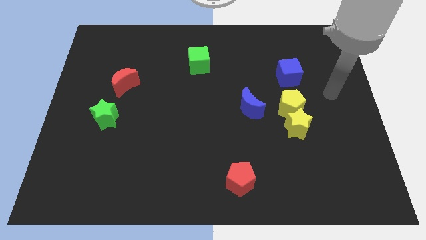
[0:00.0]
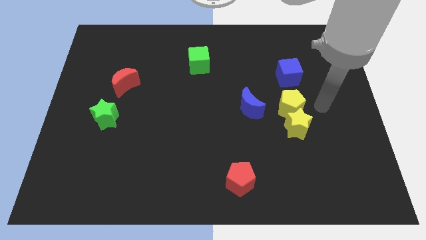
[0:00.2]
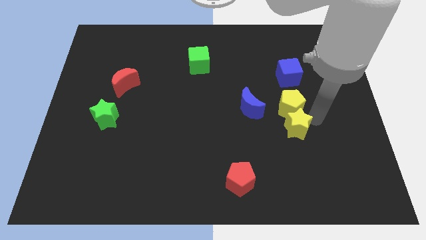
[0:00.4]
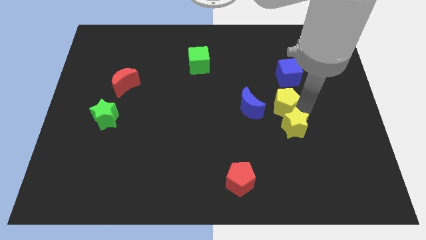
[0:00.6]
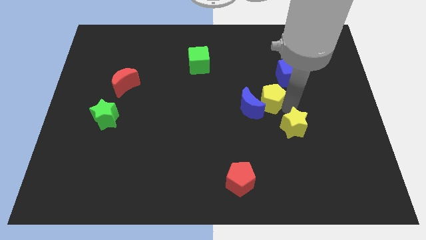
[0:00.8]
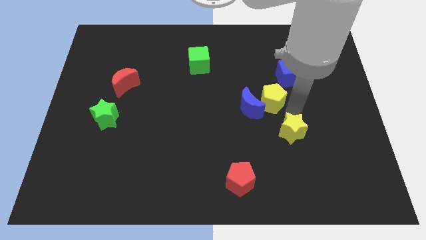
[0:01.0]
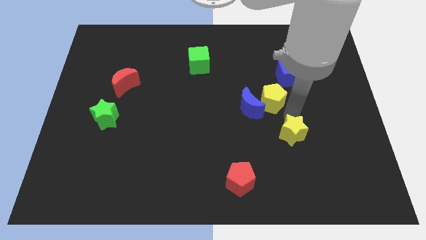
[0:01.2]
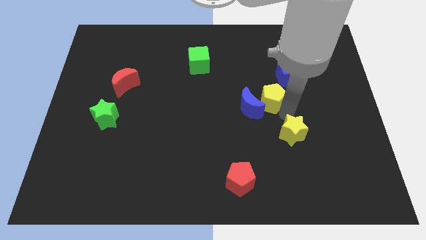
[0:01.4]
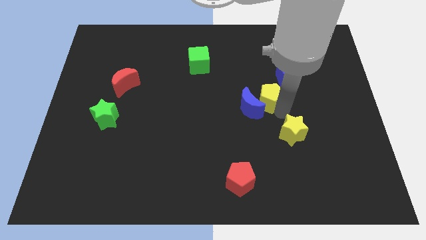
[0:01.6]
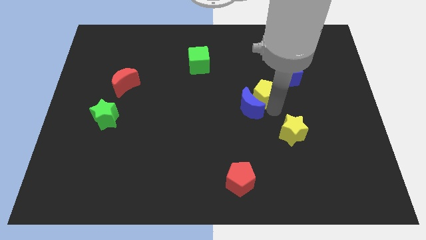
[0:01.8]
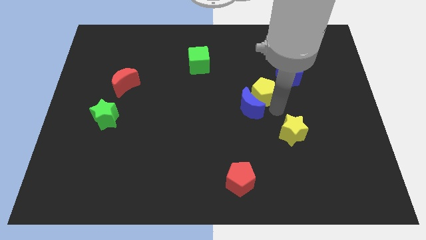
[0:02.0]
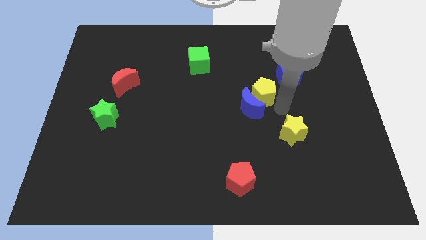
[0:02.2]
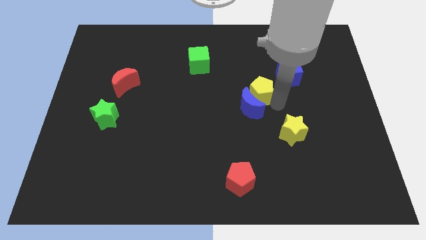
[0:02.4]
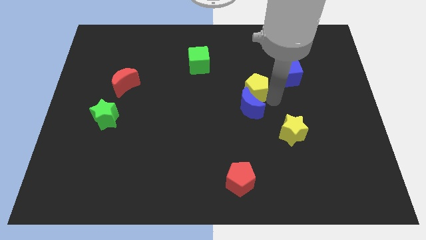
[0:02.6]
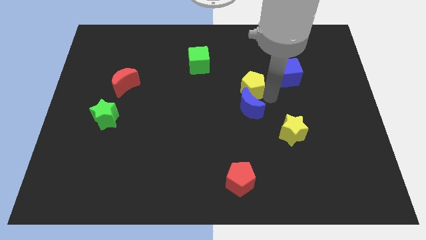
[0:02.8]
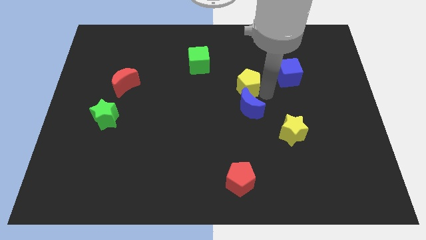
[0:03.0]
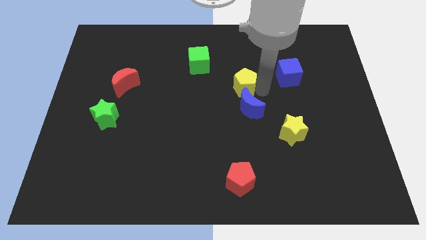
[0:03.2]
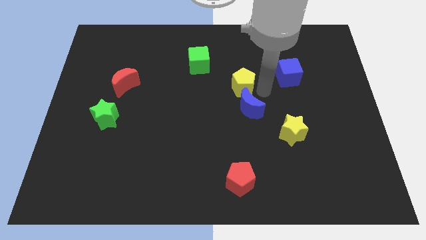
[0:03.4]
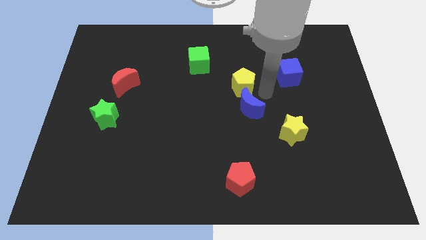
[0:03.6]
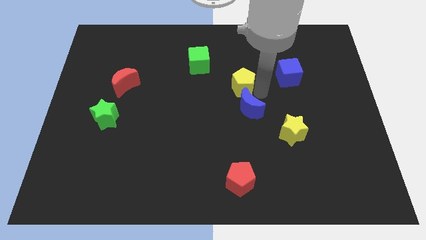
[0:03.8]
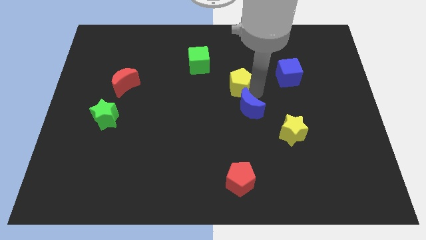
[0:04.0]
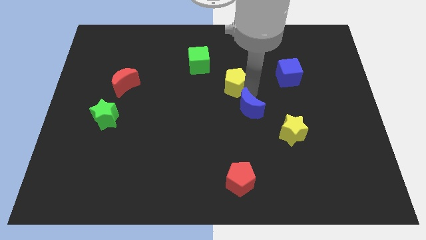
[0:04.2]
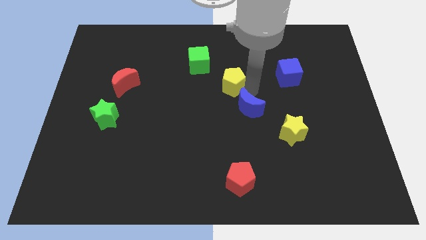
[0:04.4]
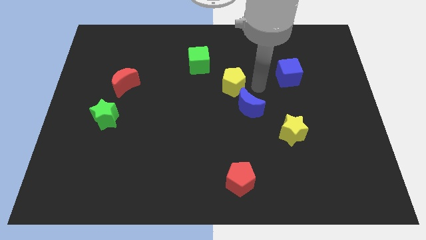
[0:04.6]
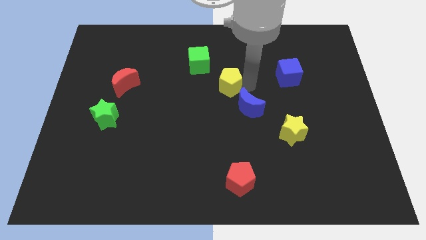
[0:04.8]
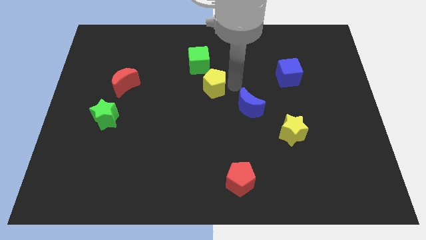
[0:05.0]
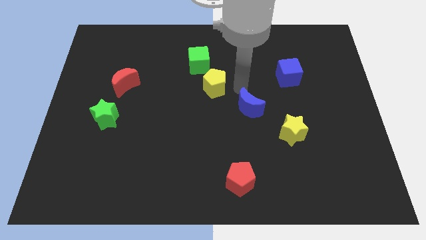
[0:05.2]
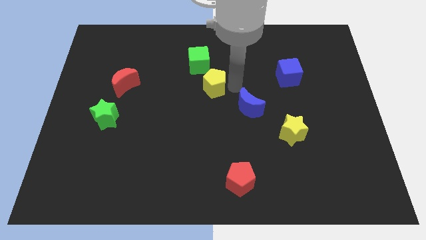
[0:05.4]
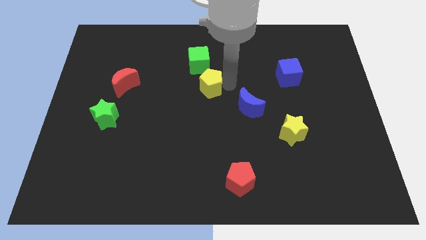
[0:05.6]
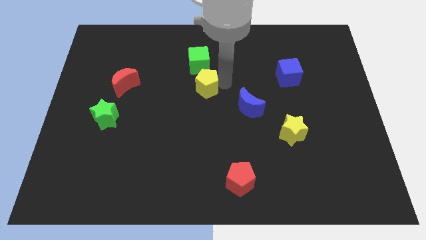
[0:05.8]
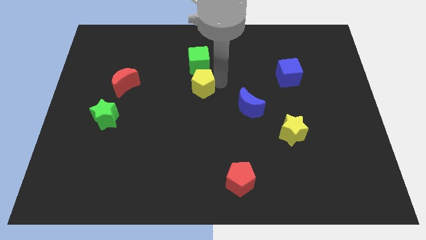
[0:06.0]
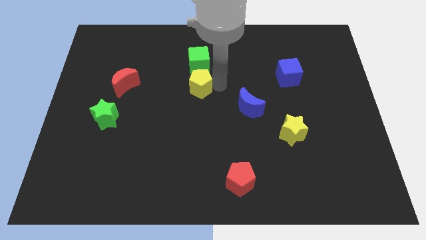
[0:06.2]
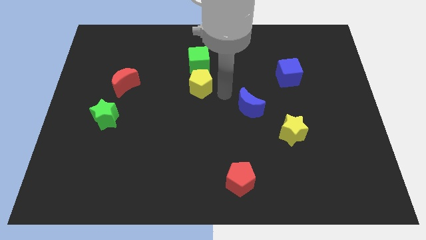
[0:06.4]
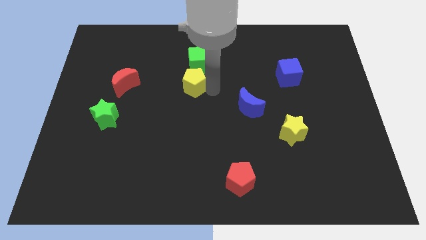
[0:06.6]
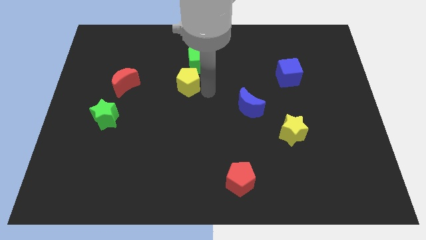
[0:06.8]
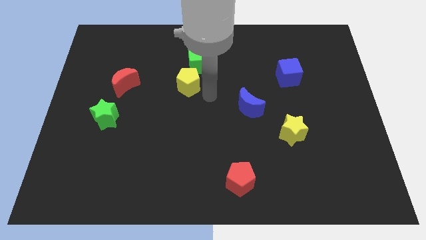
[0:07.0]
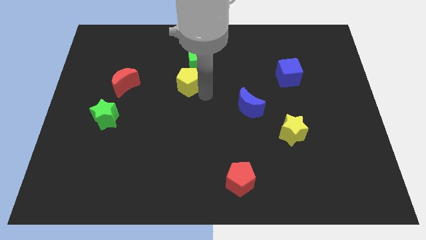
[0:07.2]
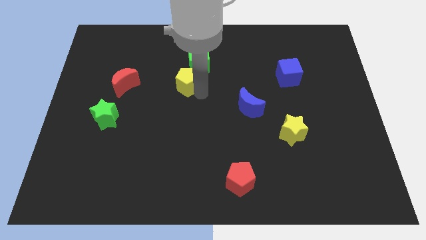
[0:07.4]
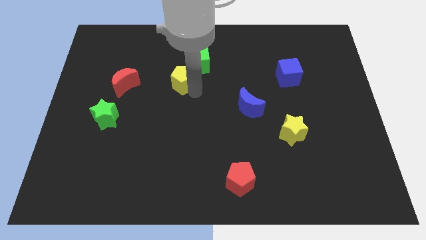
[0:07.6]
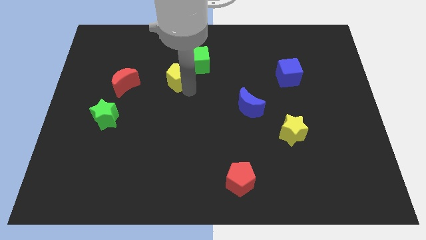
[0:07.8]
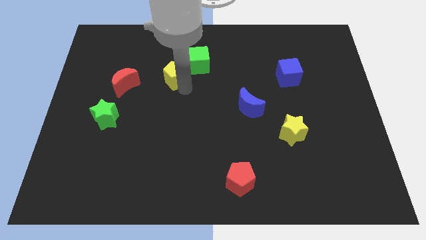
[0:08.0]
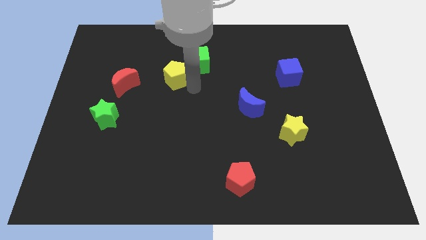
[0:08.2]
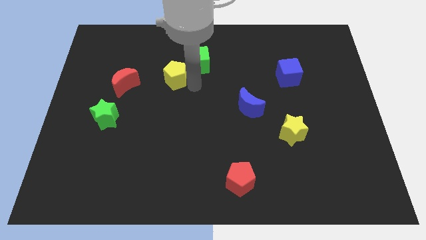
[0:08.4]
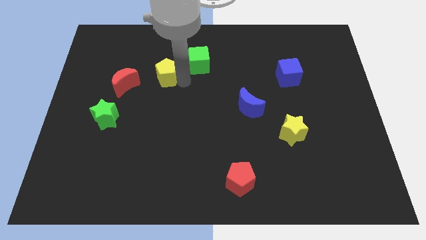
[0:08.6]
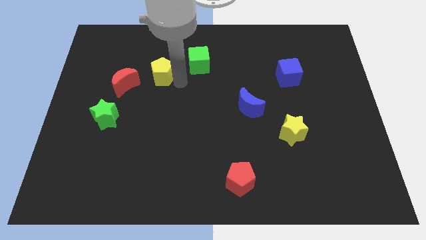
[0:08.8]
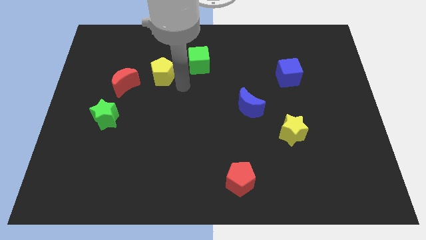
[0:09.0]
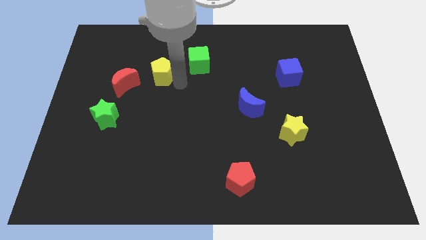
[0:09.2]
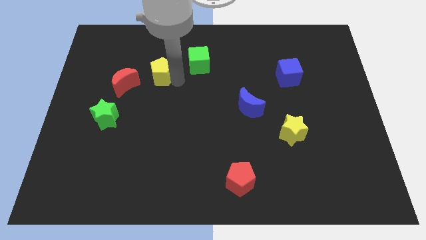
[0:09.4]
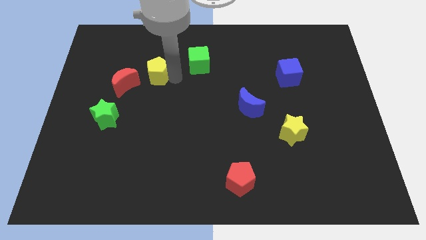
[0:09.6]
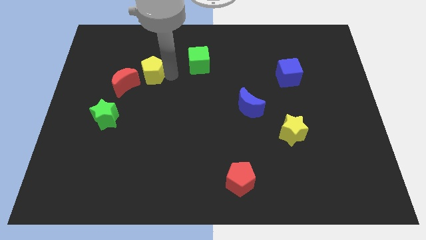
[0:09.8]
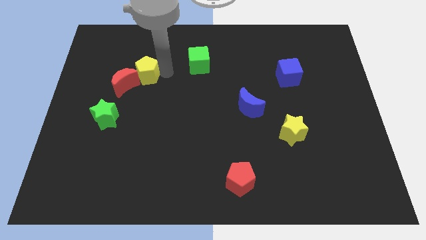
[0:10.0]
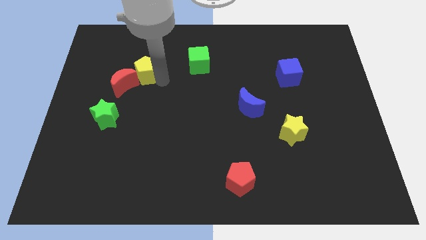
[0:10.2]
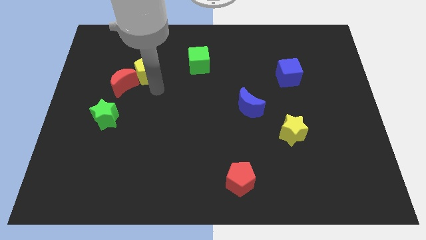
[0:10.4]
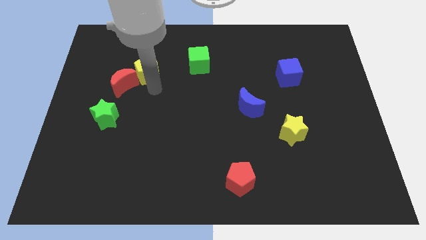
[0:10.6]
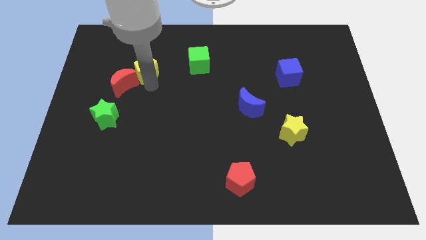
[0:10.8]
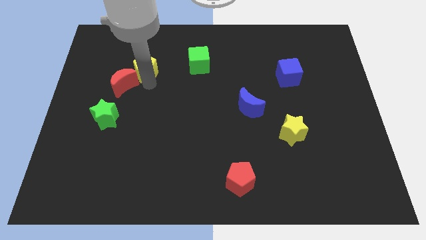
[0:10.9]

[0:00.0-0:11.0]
push the yellow pentagon to the top of the red moon

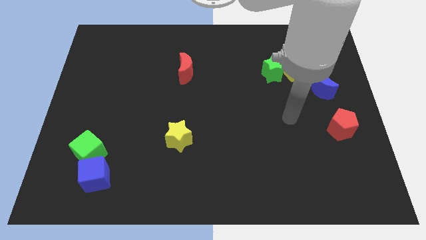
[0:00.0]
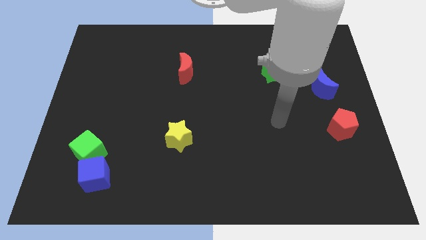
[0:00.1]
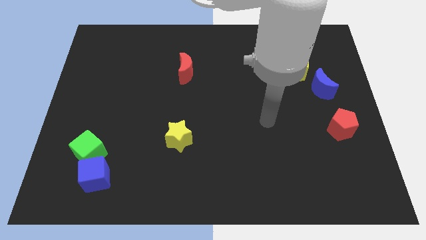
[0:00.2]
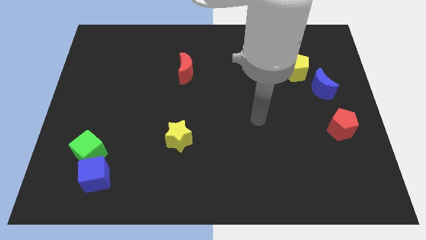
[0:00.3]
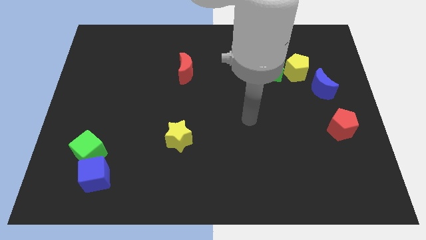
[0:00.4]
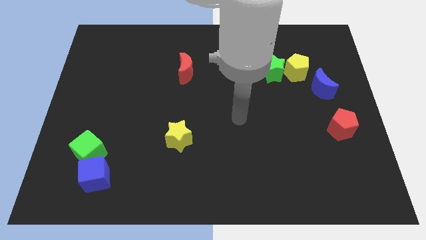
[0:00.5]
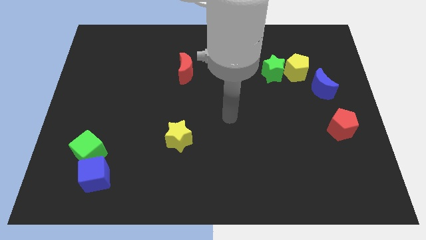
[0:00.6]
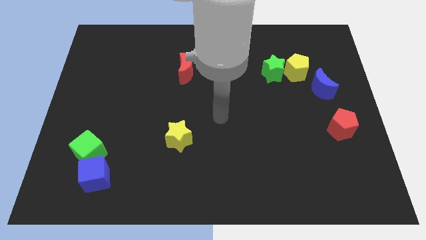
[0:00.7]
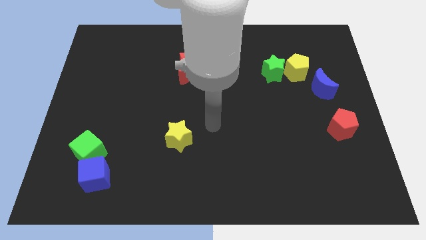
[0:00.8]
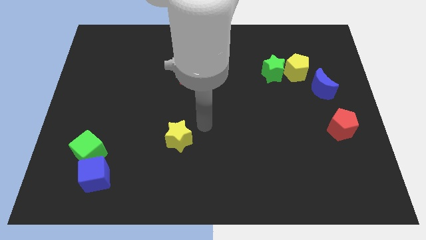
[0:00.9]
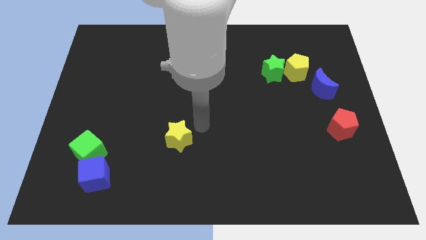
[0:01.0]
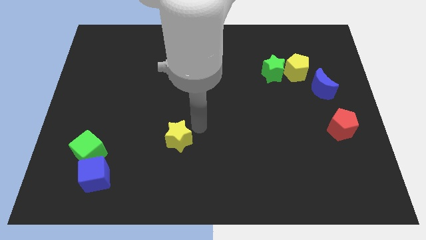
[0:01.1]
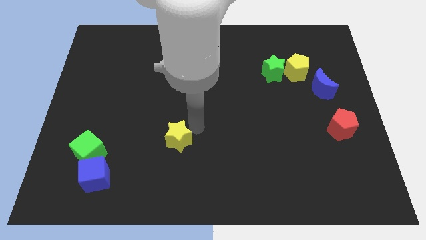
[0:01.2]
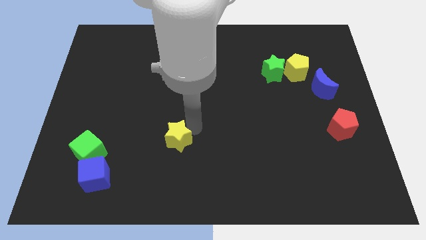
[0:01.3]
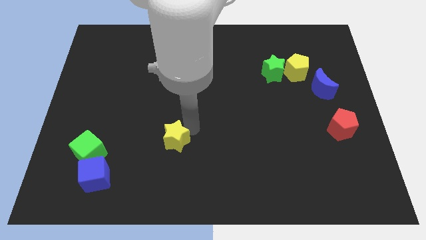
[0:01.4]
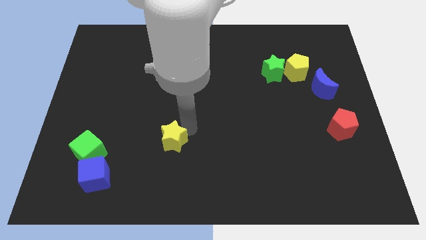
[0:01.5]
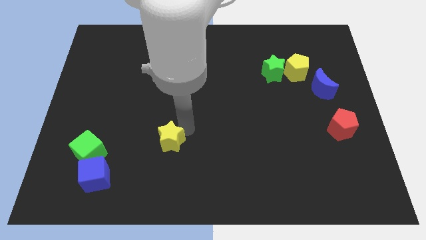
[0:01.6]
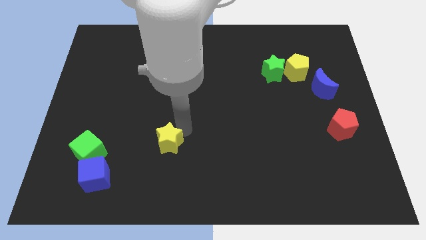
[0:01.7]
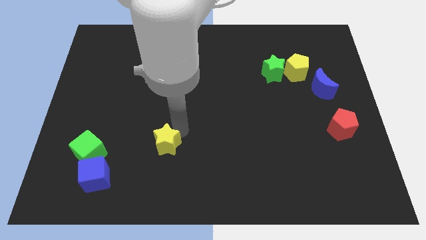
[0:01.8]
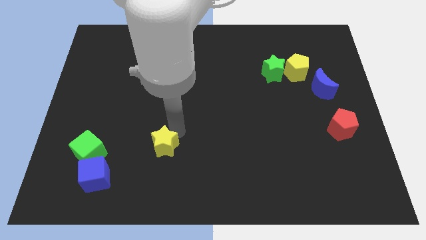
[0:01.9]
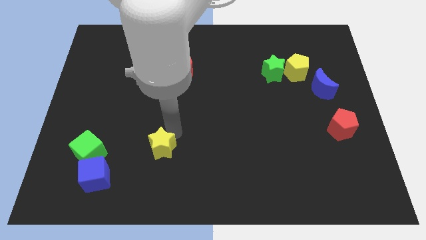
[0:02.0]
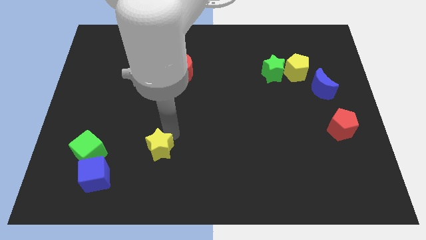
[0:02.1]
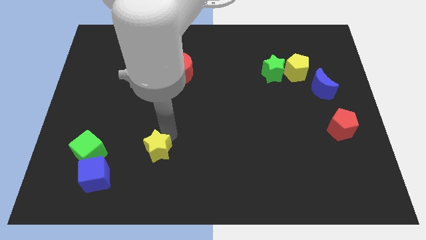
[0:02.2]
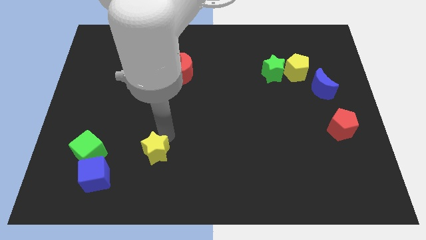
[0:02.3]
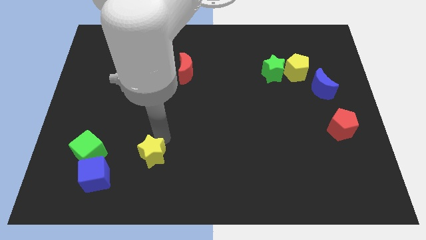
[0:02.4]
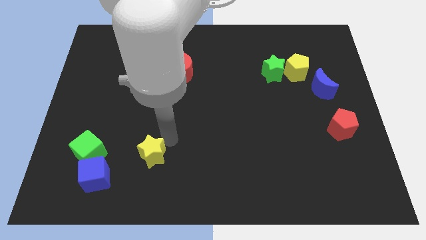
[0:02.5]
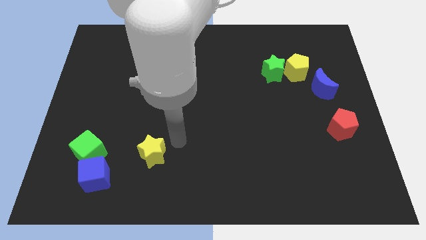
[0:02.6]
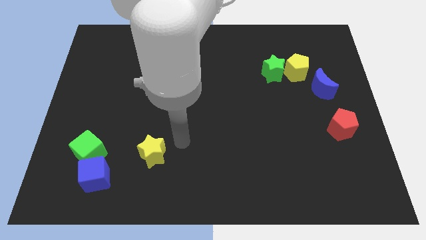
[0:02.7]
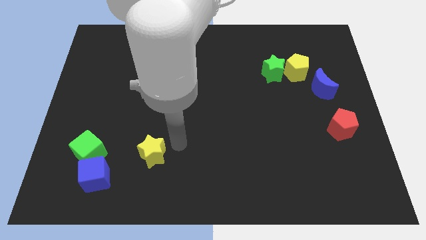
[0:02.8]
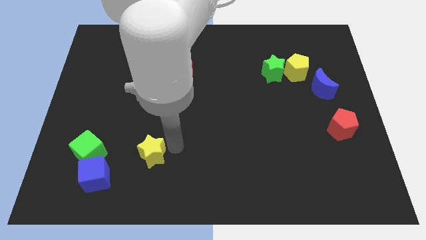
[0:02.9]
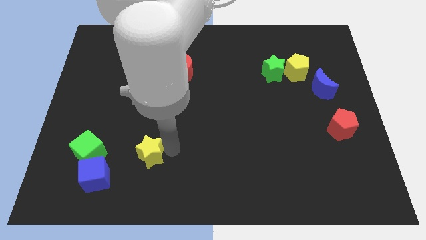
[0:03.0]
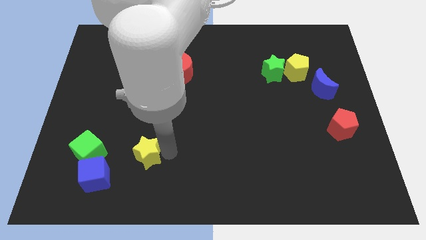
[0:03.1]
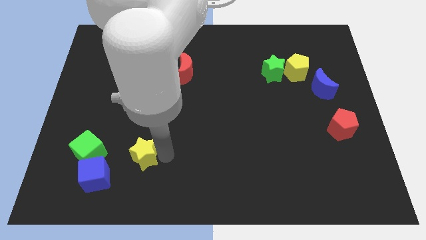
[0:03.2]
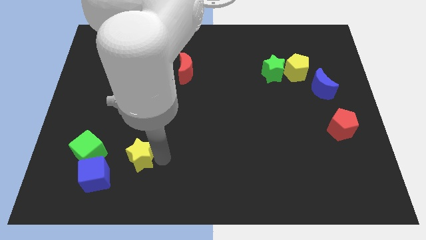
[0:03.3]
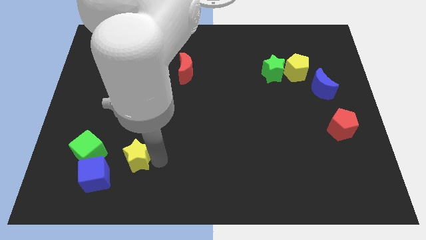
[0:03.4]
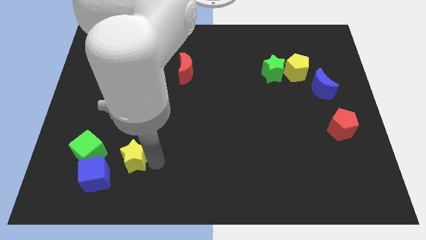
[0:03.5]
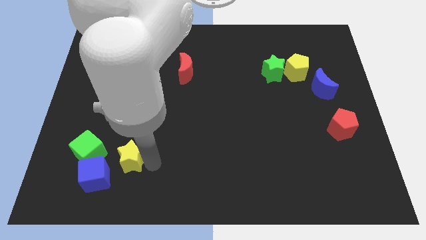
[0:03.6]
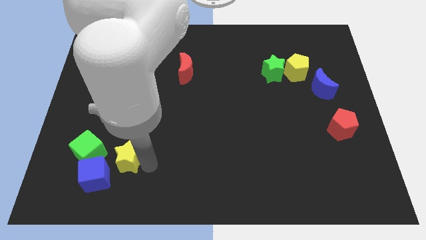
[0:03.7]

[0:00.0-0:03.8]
push the yellow star to the bottom right side of the green cube
